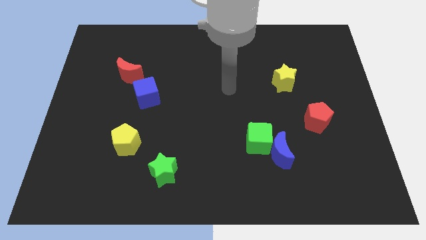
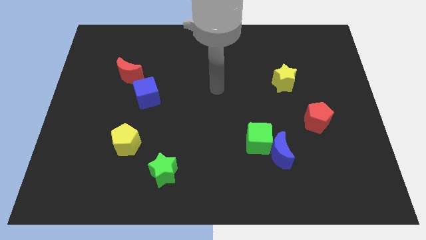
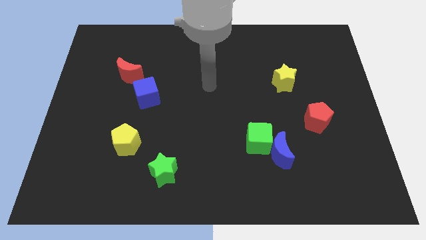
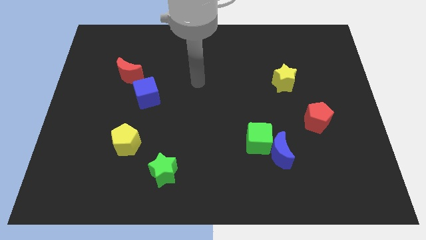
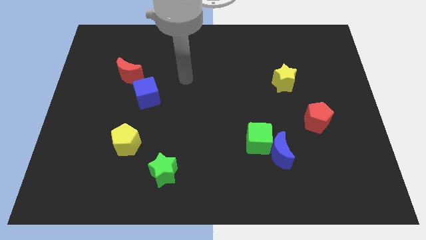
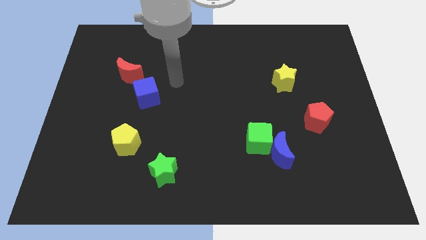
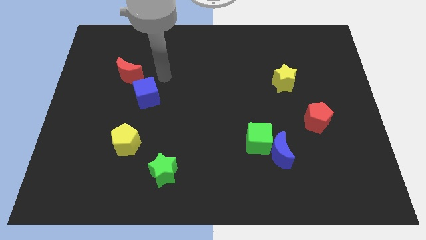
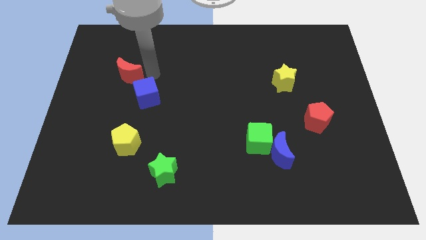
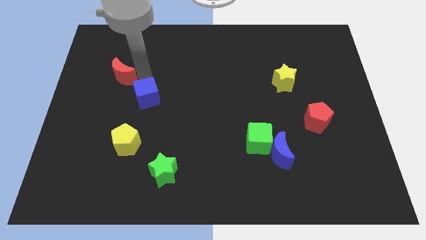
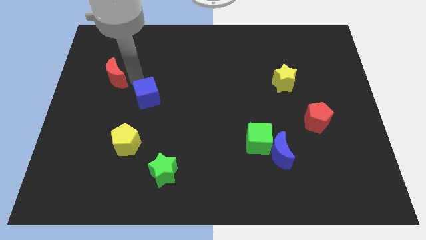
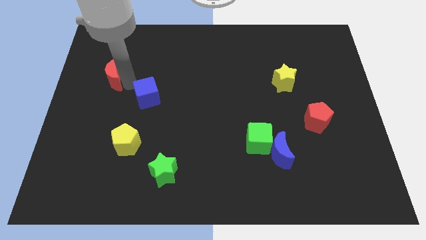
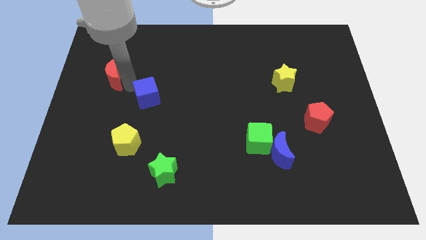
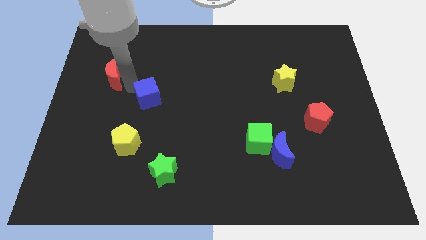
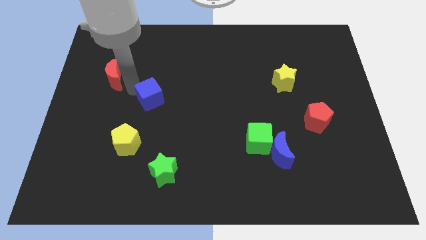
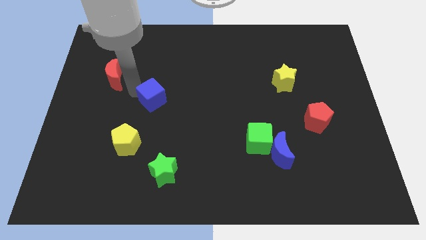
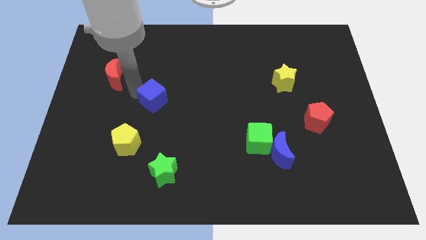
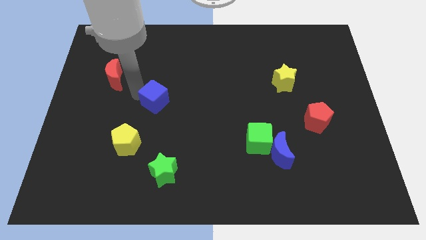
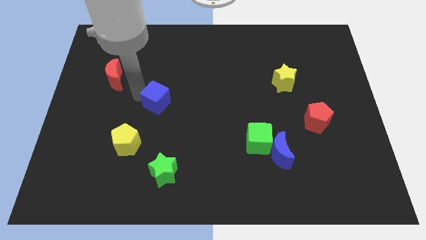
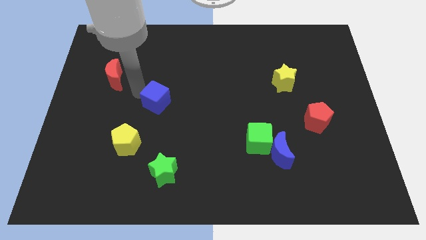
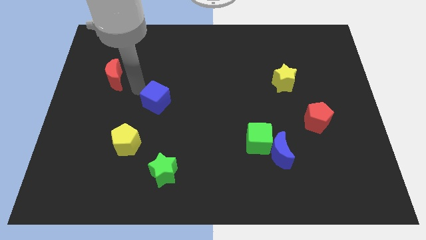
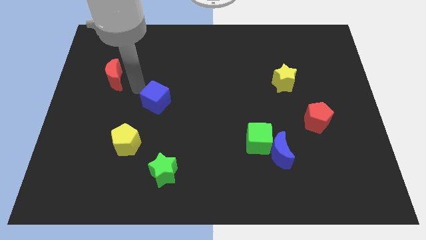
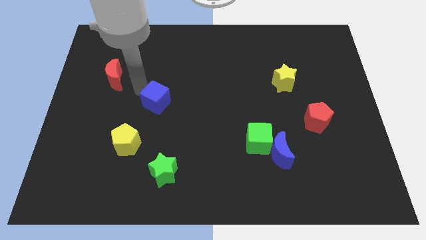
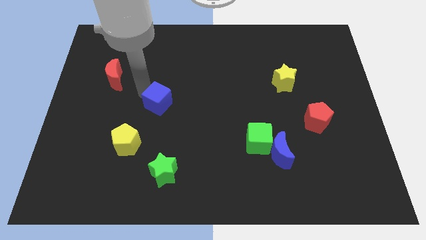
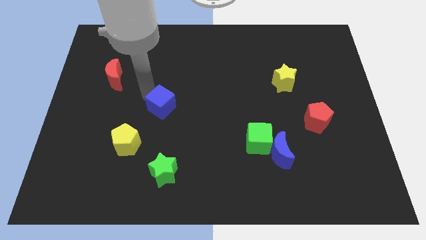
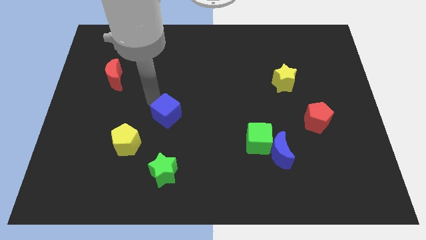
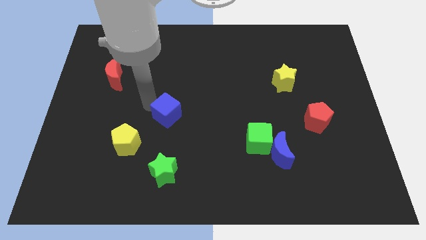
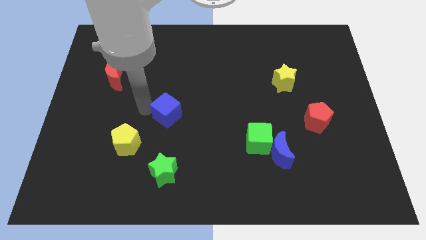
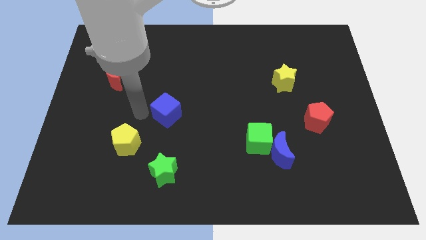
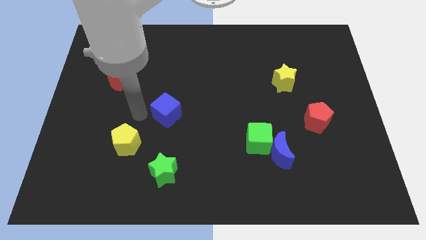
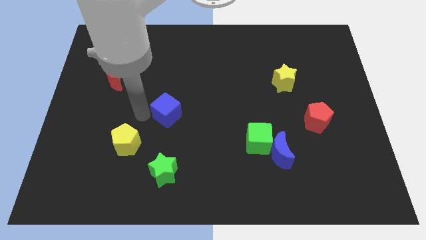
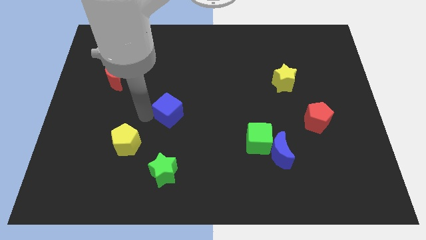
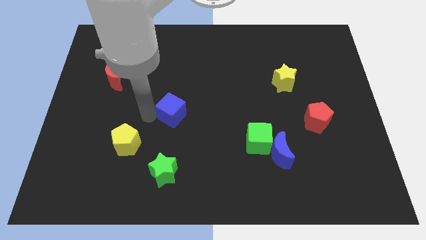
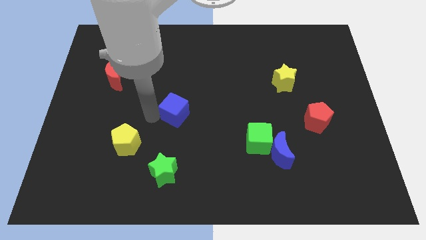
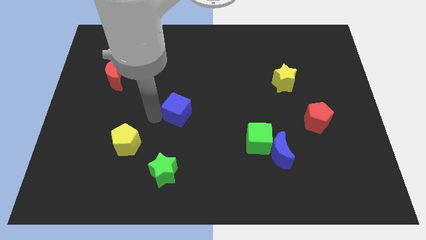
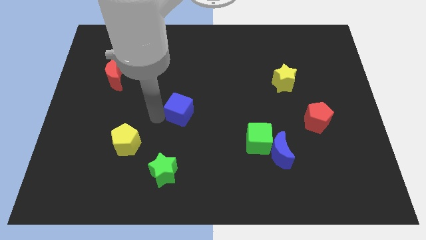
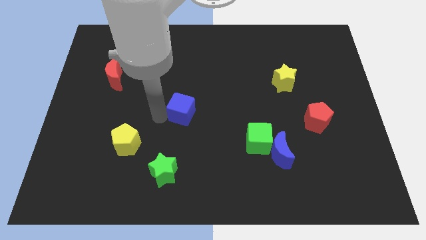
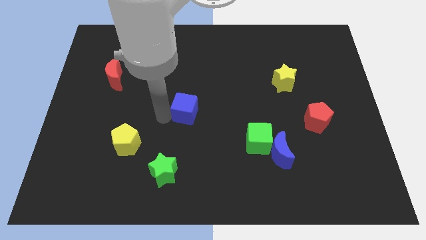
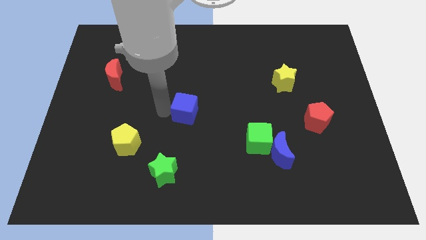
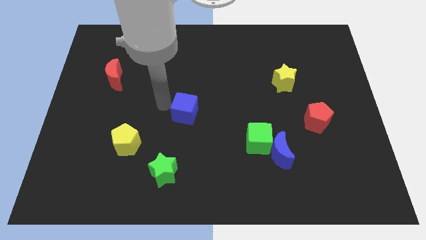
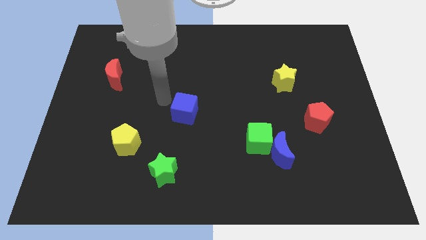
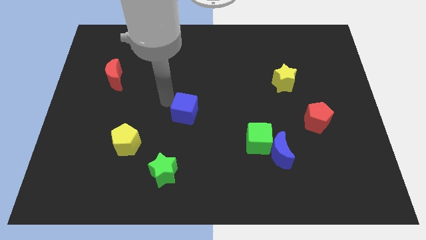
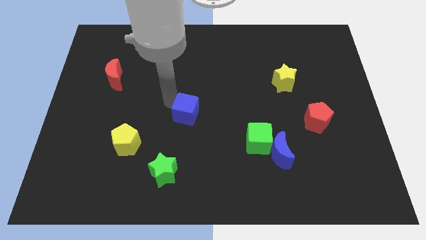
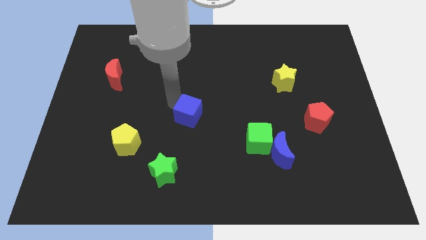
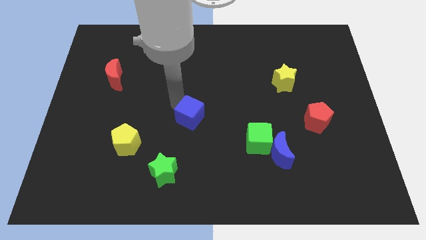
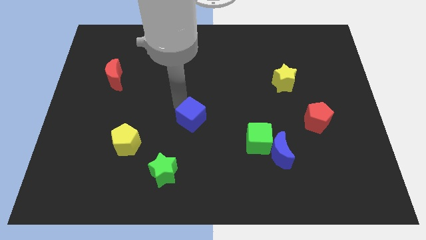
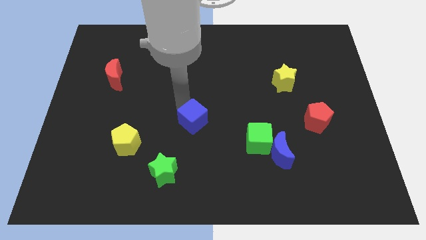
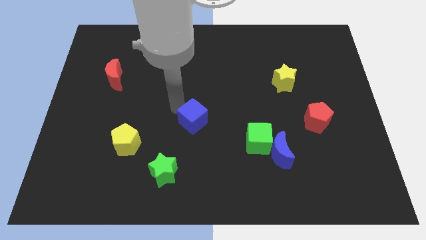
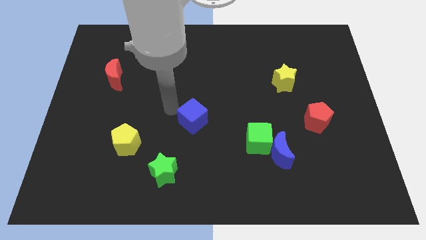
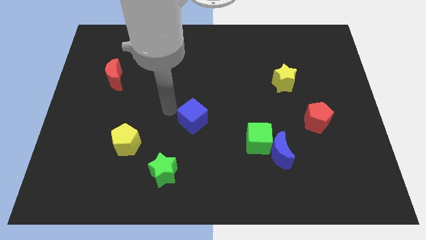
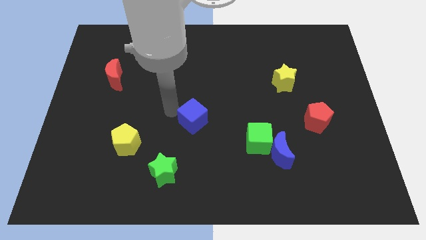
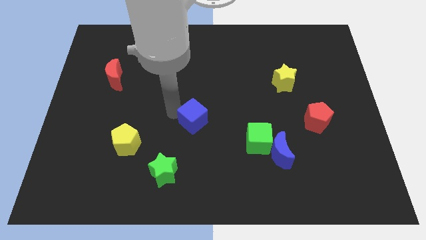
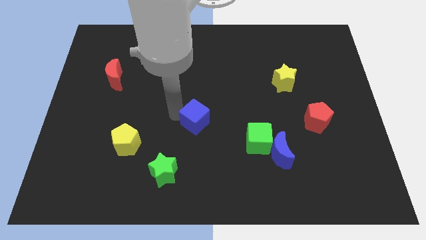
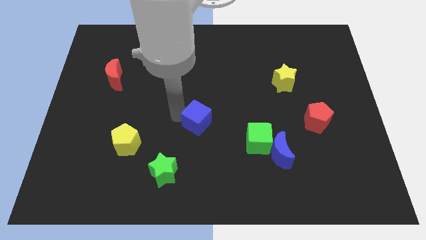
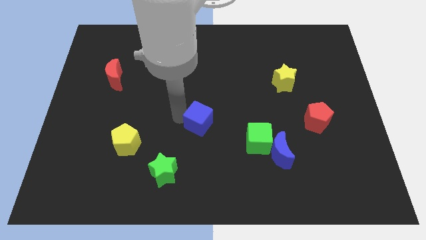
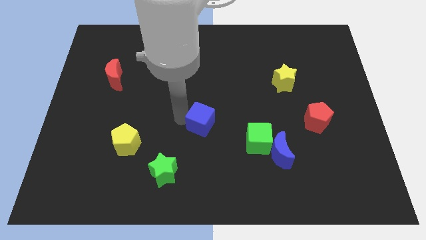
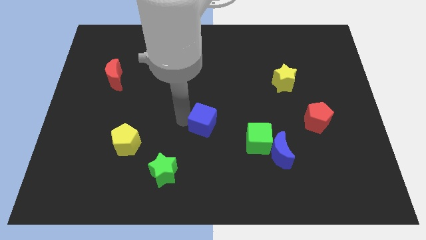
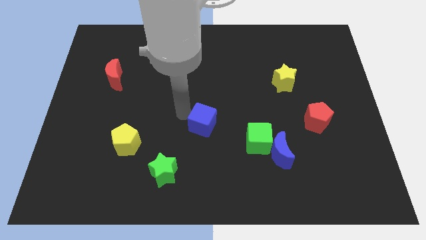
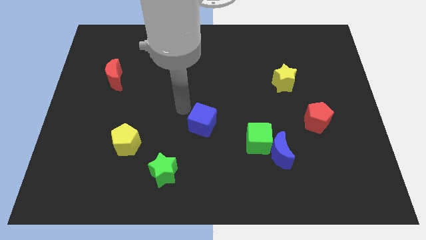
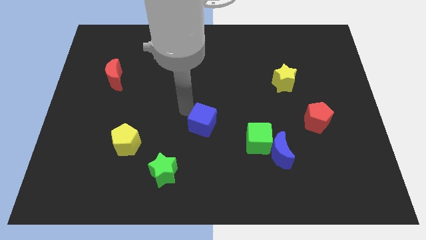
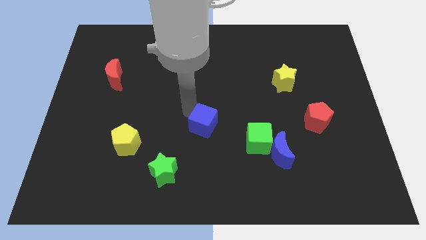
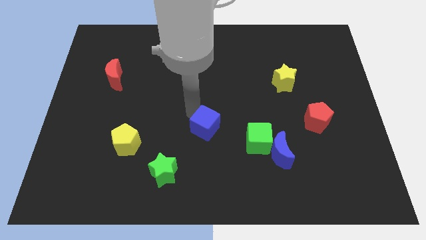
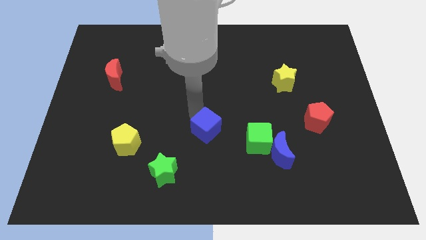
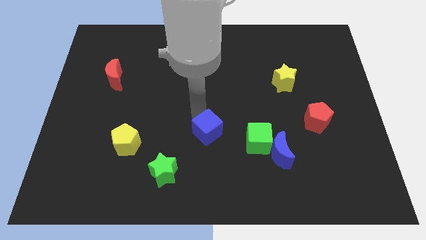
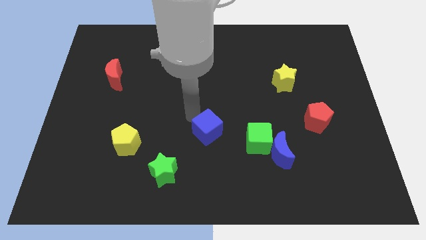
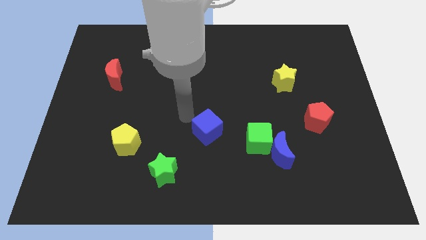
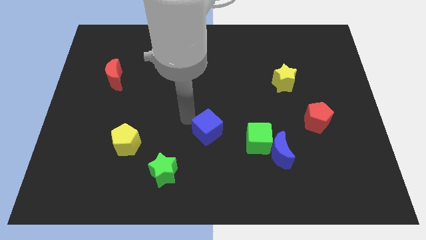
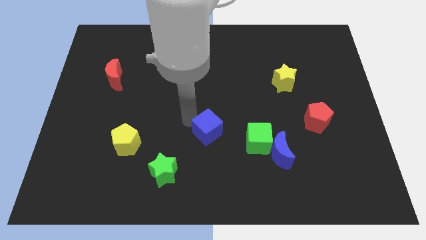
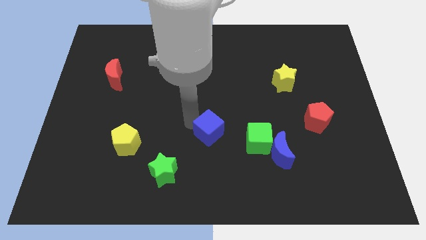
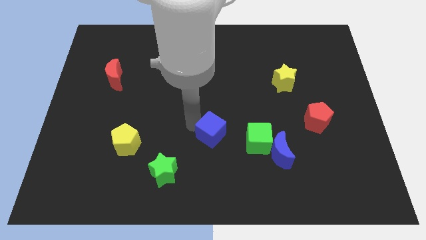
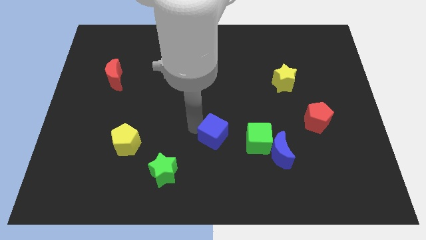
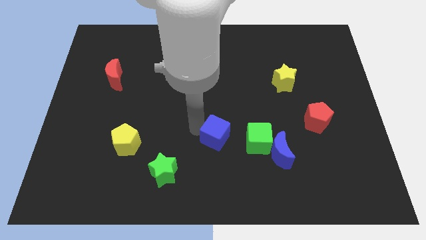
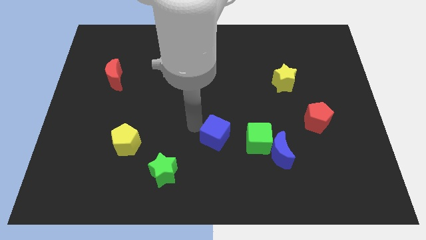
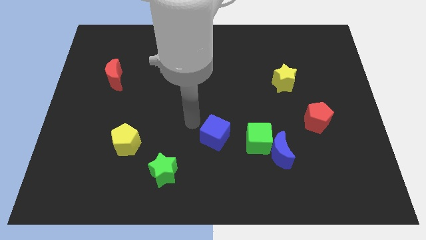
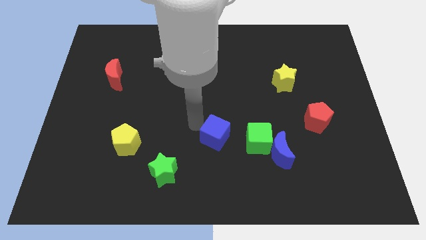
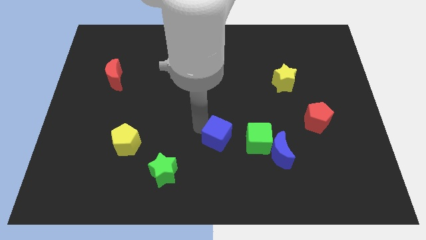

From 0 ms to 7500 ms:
move the blue cube down and to the right diagonally

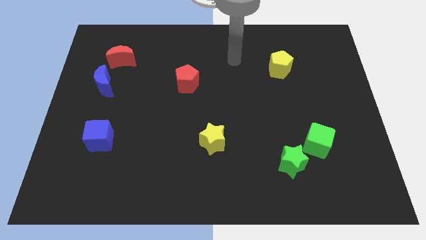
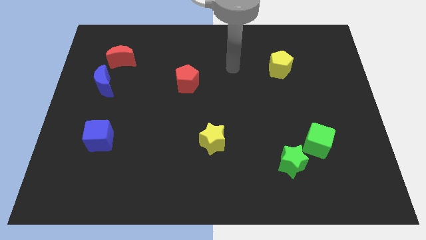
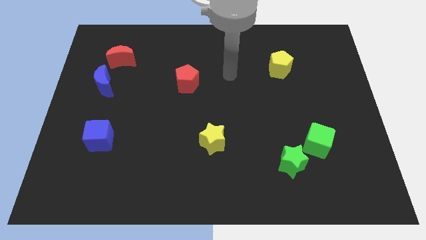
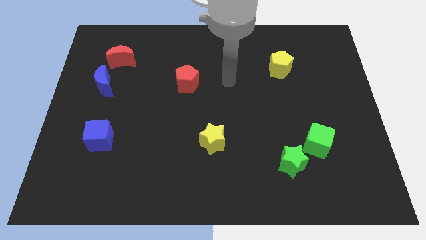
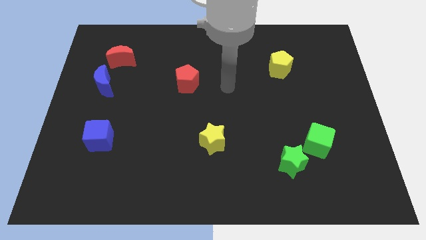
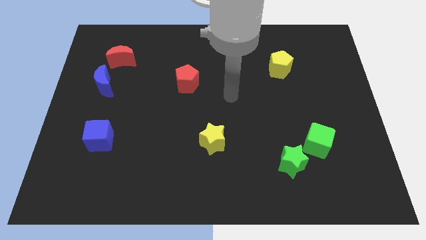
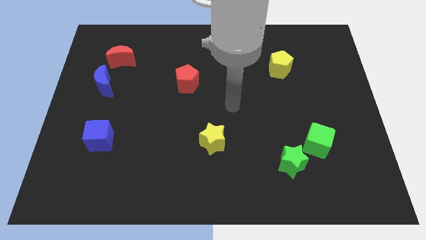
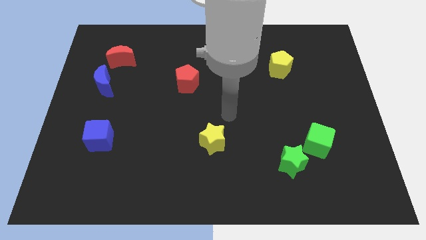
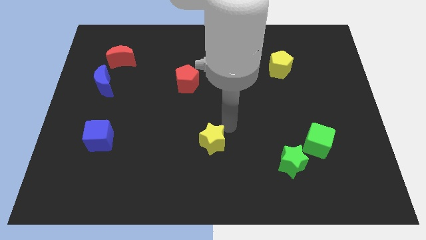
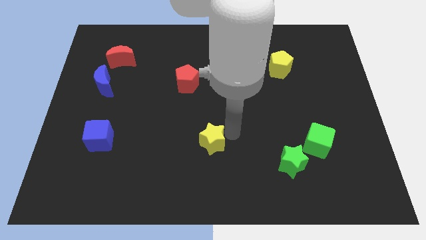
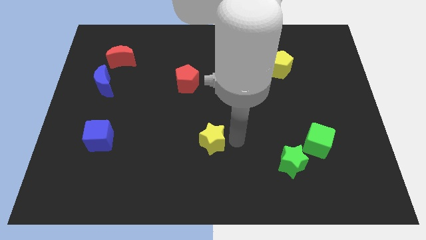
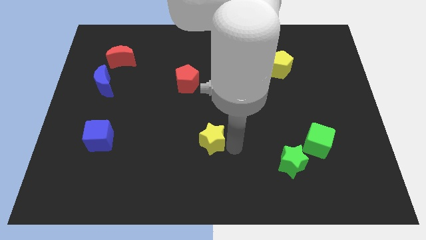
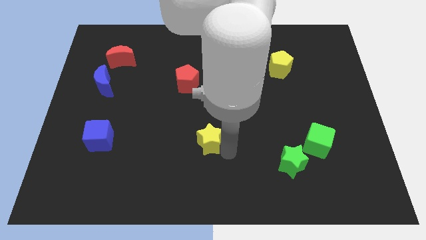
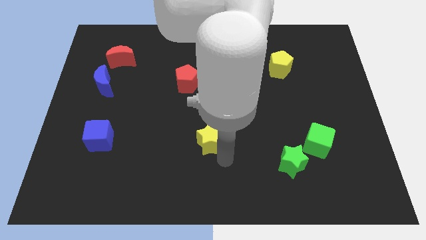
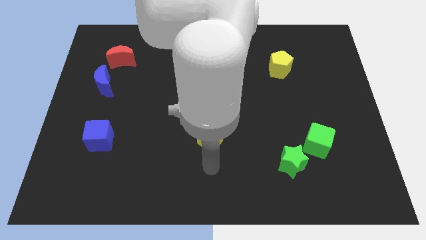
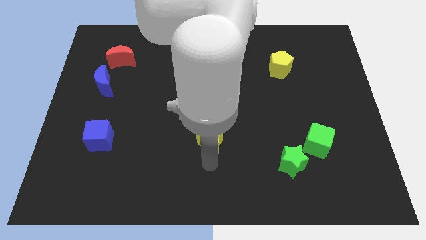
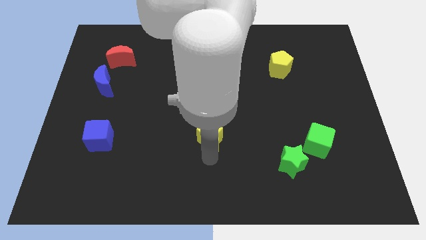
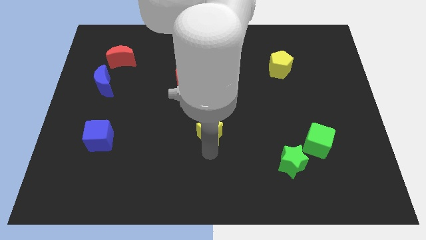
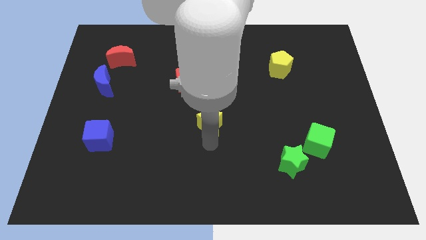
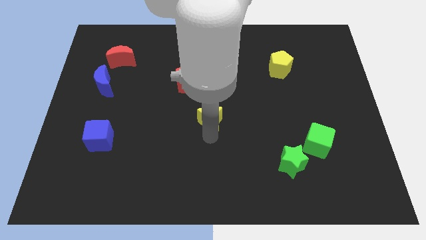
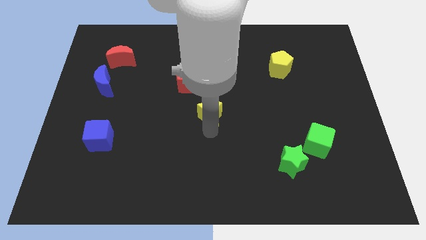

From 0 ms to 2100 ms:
move the yellow star upwards a bit
